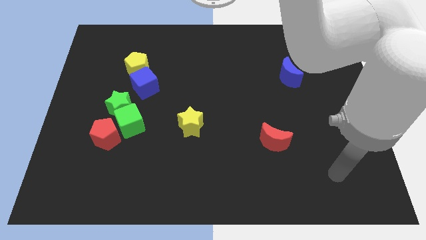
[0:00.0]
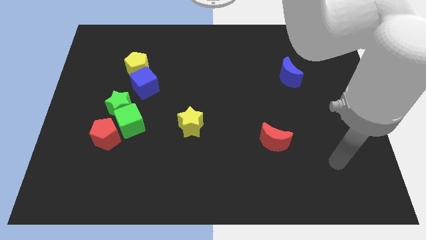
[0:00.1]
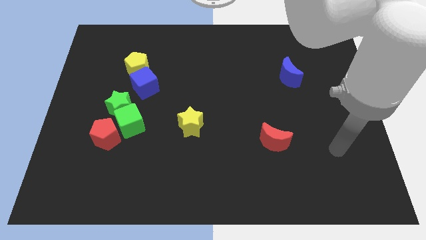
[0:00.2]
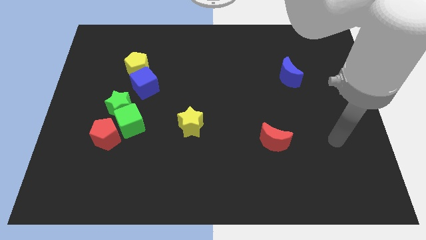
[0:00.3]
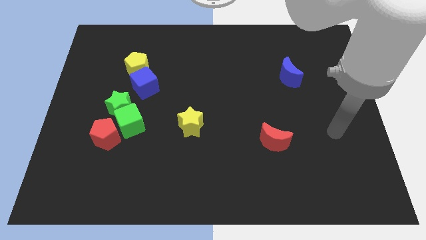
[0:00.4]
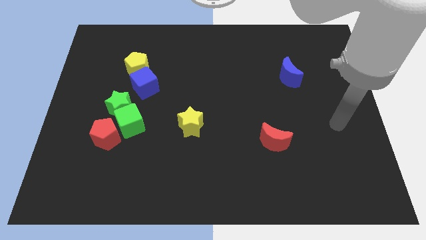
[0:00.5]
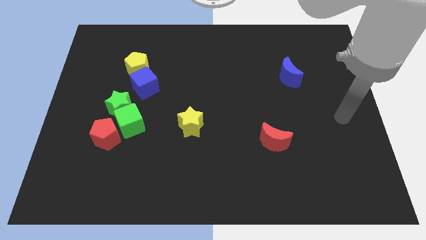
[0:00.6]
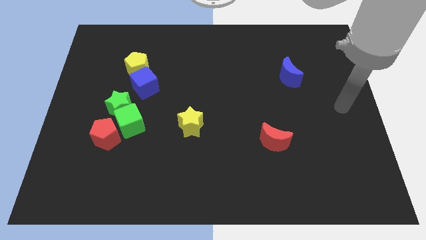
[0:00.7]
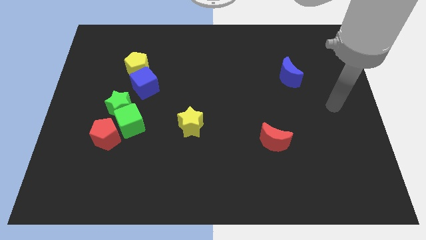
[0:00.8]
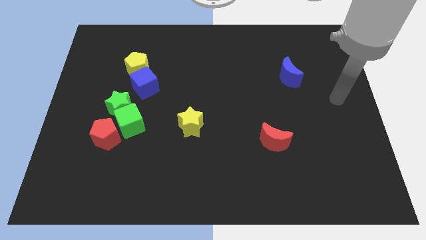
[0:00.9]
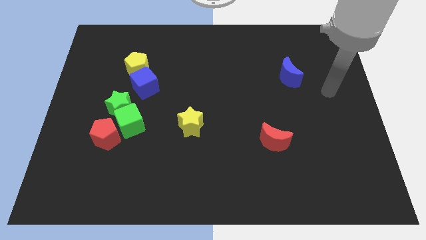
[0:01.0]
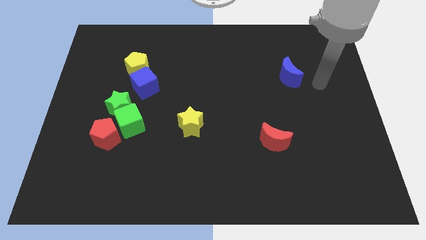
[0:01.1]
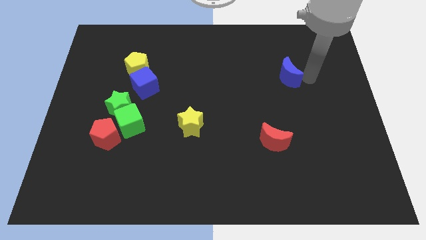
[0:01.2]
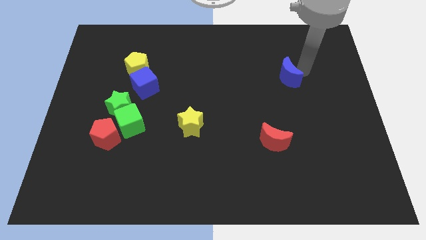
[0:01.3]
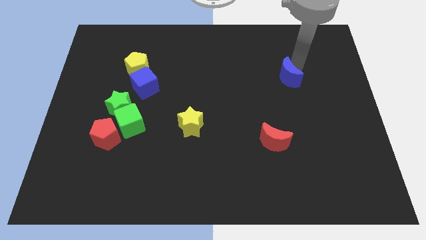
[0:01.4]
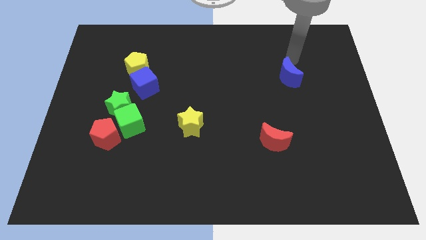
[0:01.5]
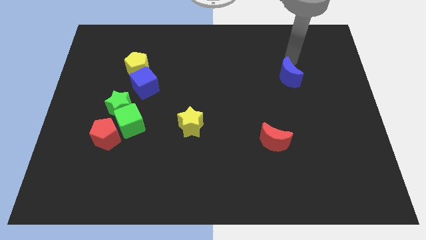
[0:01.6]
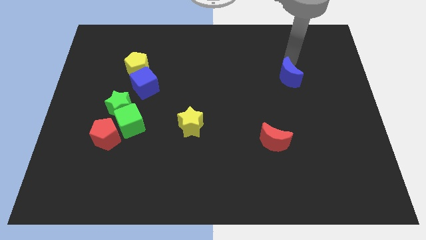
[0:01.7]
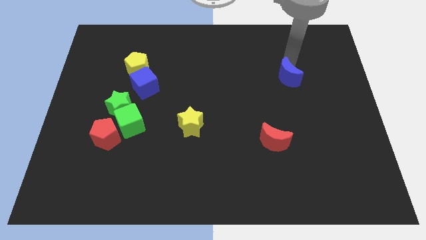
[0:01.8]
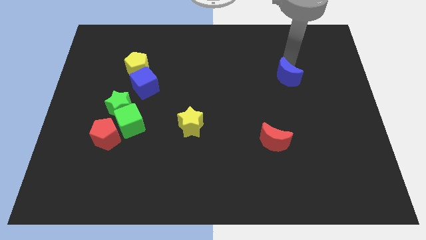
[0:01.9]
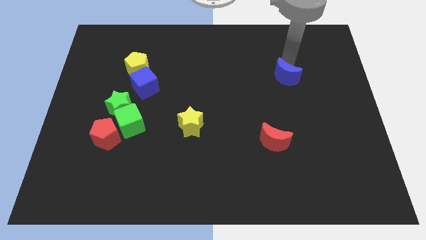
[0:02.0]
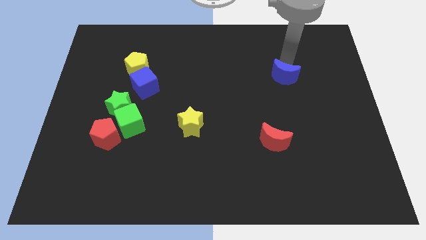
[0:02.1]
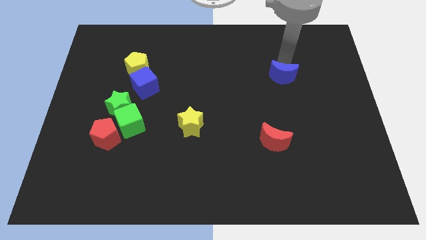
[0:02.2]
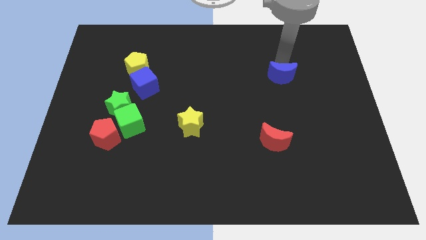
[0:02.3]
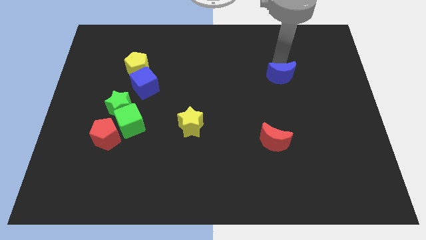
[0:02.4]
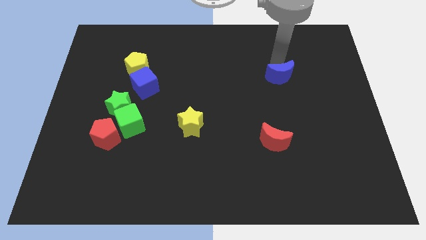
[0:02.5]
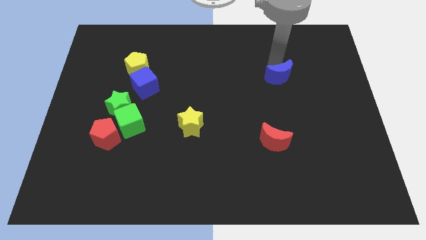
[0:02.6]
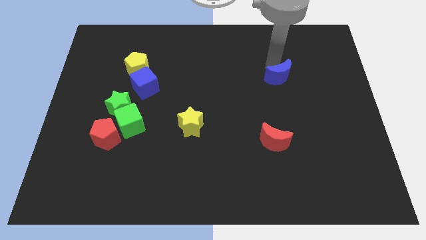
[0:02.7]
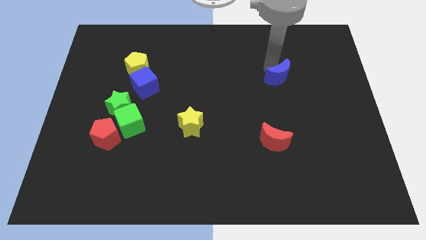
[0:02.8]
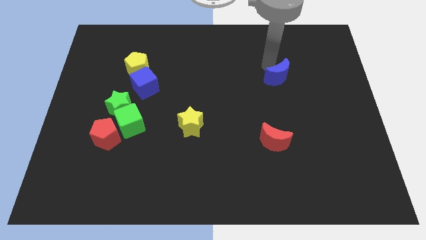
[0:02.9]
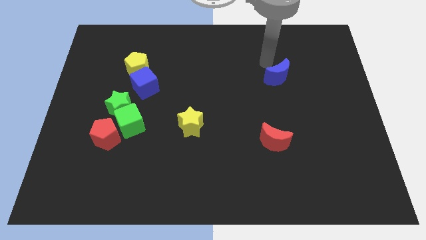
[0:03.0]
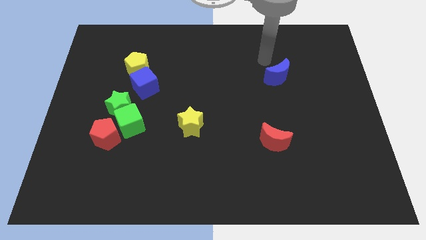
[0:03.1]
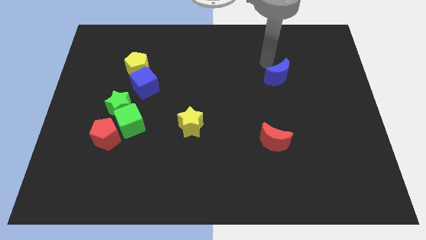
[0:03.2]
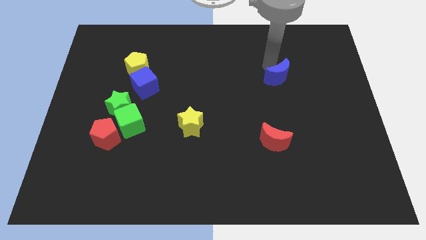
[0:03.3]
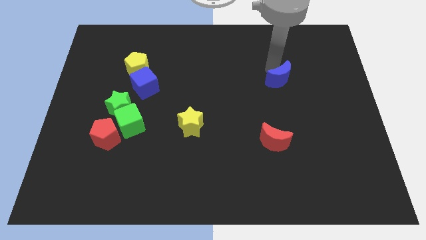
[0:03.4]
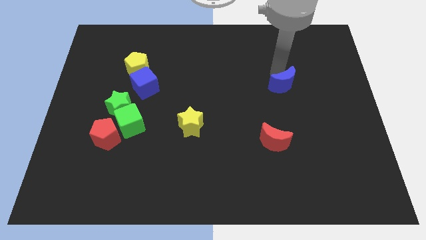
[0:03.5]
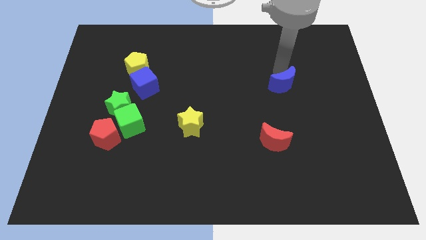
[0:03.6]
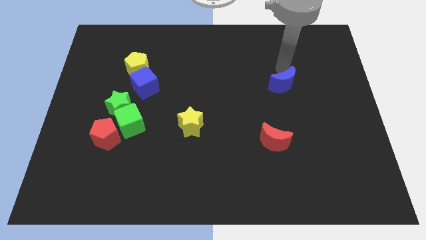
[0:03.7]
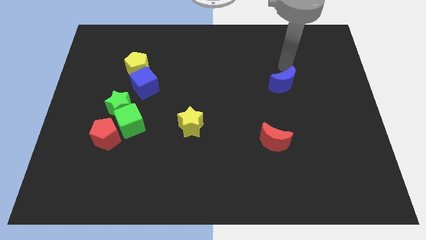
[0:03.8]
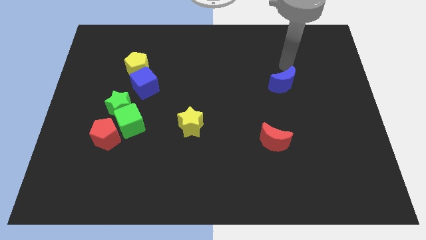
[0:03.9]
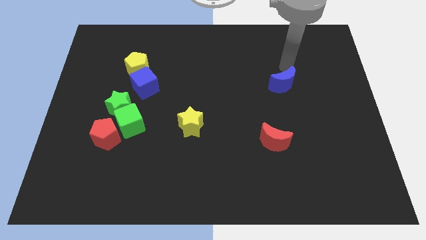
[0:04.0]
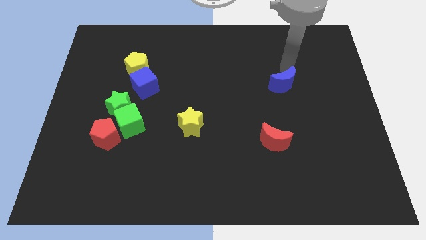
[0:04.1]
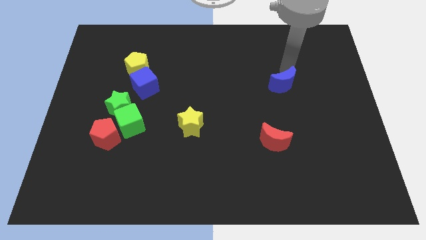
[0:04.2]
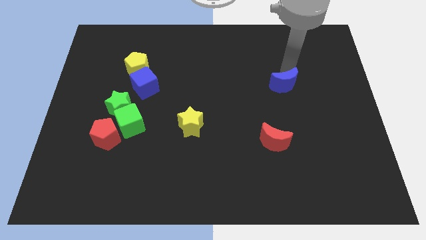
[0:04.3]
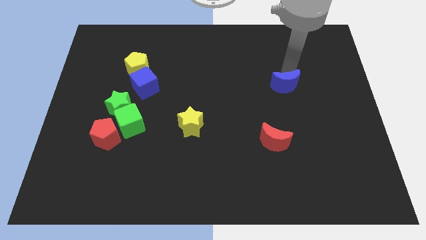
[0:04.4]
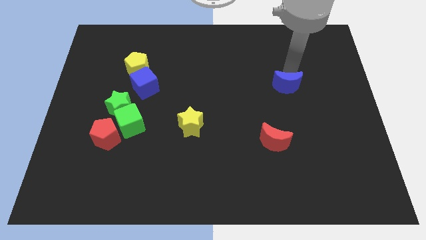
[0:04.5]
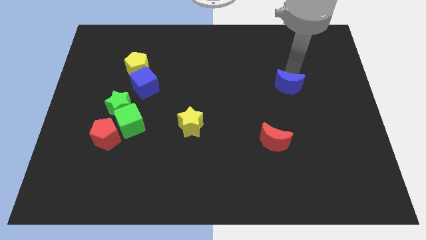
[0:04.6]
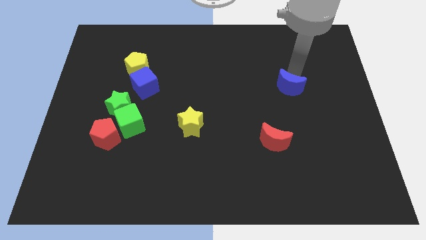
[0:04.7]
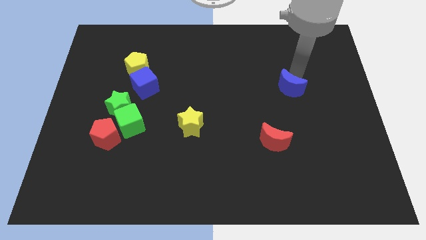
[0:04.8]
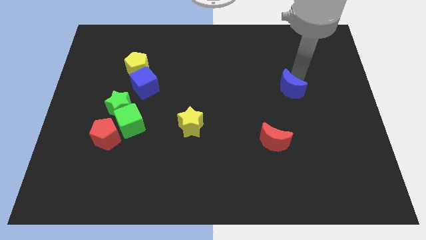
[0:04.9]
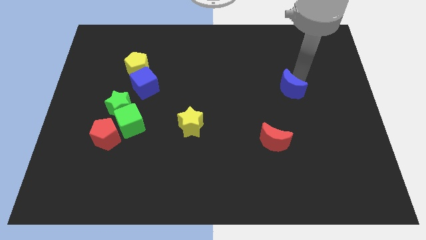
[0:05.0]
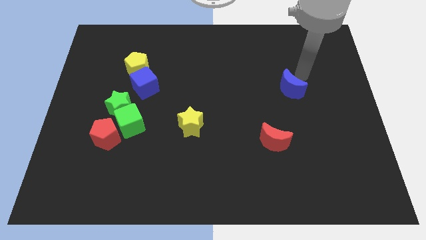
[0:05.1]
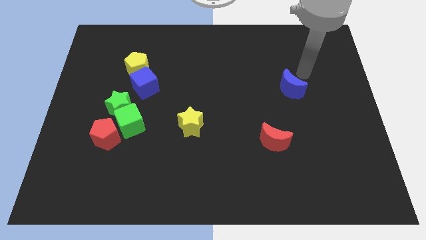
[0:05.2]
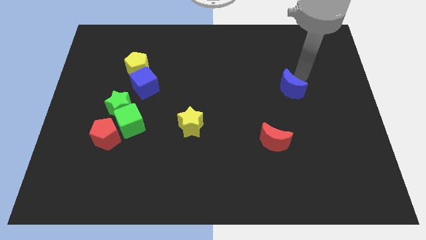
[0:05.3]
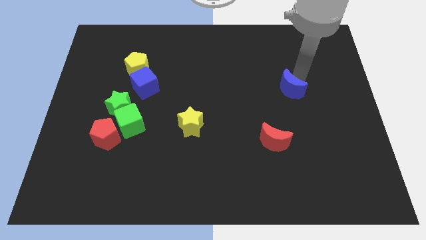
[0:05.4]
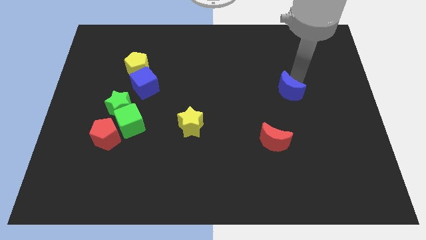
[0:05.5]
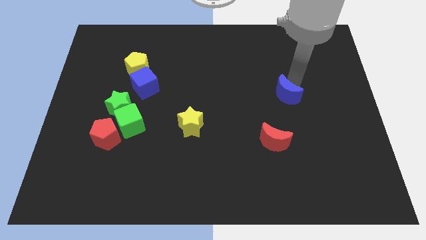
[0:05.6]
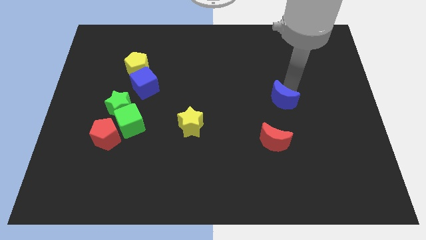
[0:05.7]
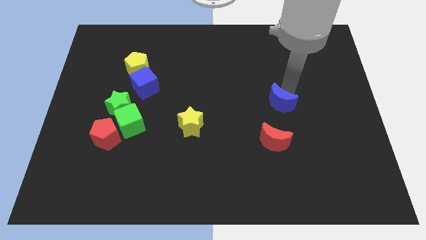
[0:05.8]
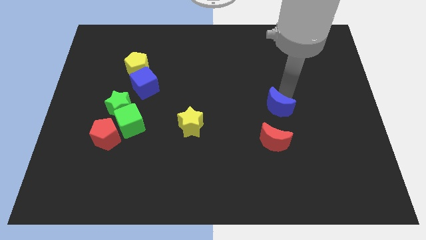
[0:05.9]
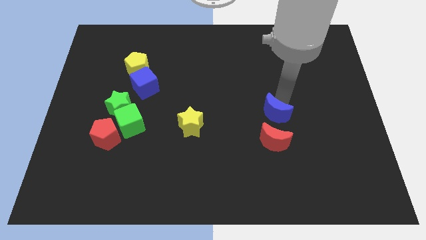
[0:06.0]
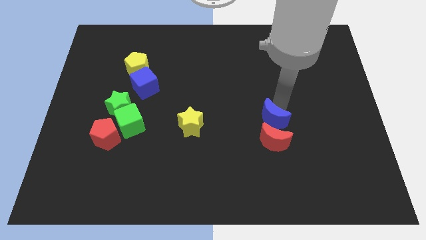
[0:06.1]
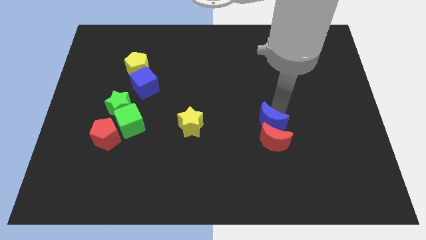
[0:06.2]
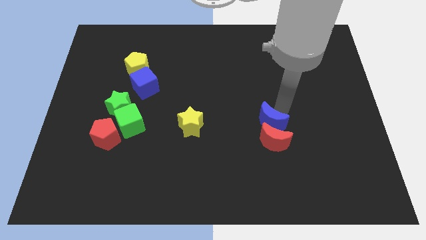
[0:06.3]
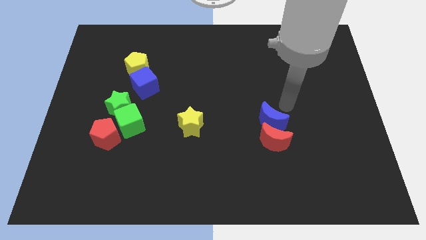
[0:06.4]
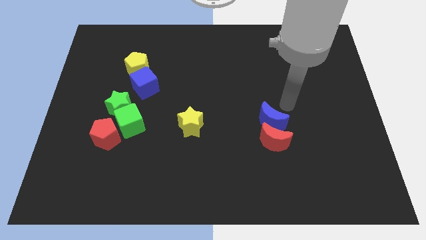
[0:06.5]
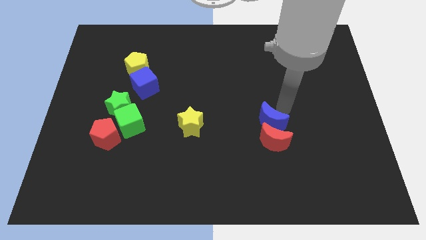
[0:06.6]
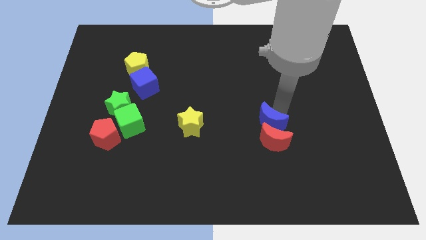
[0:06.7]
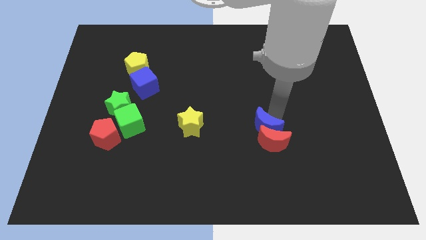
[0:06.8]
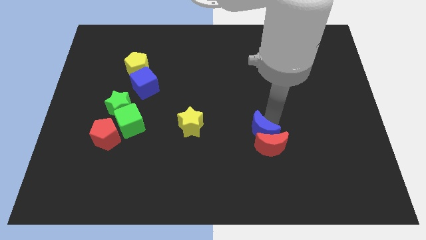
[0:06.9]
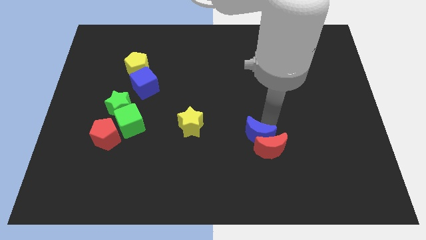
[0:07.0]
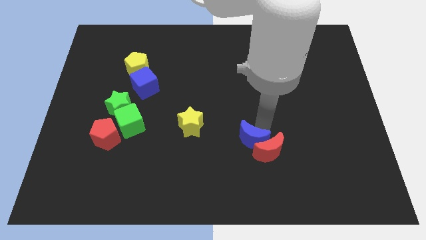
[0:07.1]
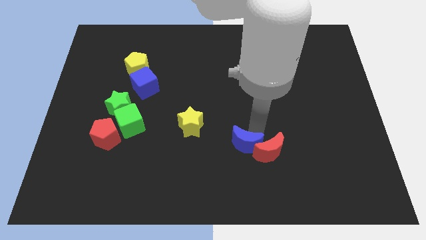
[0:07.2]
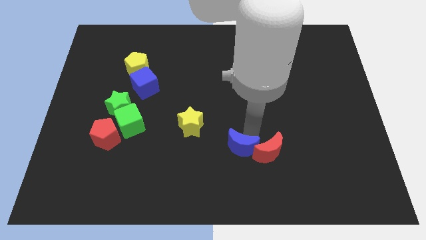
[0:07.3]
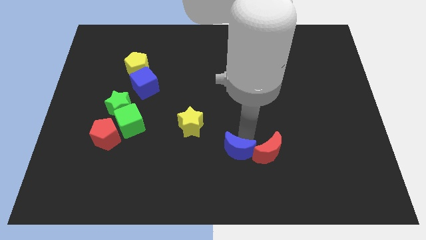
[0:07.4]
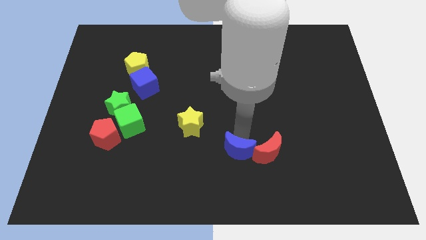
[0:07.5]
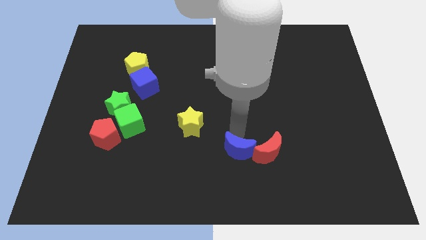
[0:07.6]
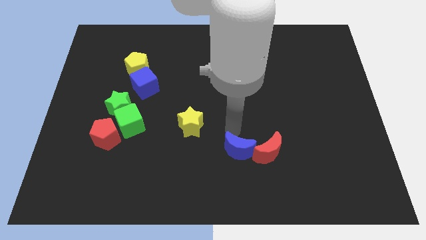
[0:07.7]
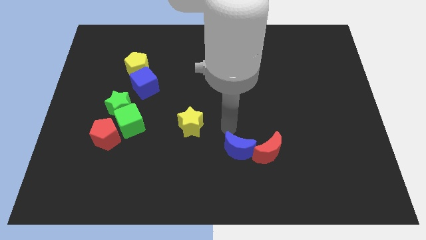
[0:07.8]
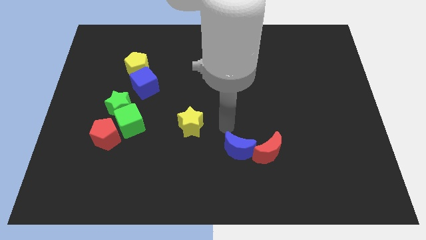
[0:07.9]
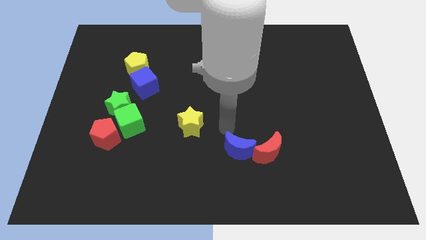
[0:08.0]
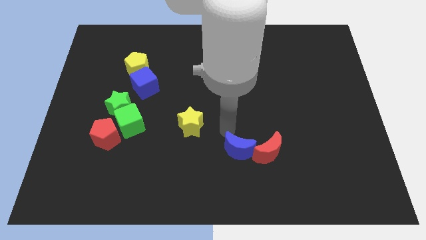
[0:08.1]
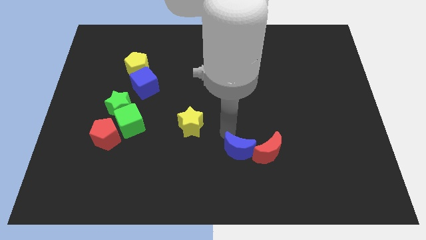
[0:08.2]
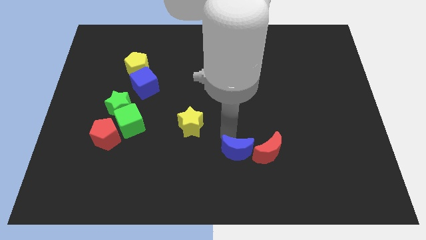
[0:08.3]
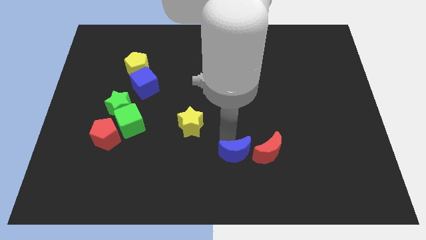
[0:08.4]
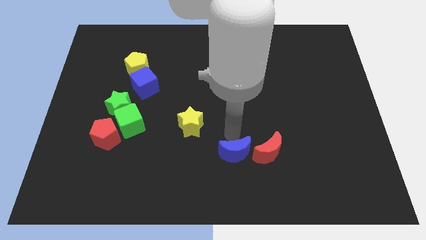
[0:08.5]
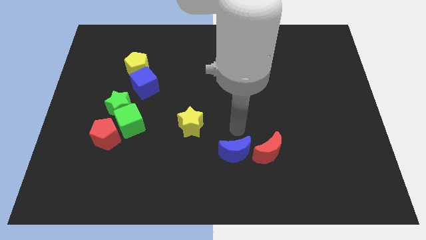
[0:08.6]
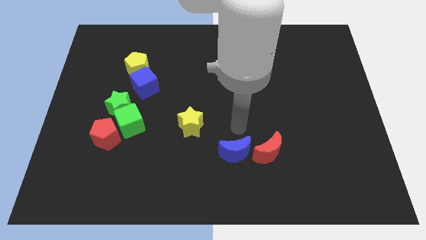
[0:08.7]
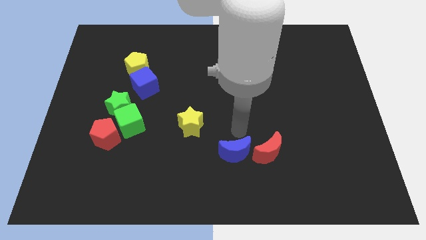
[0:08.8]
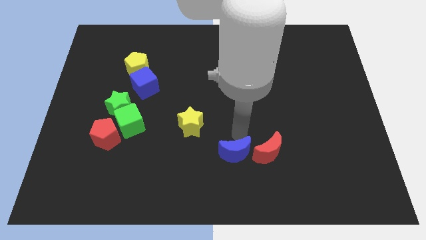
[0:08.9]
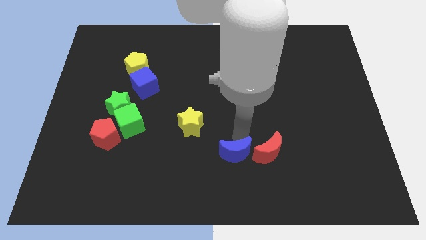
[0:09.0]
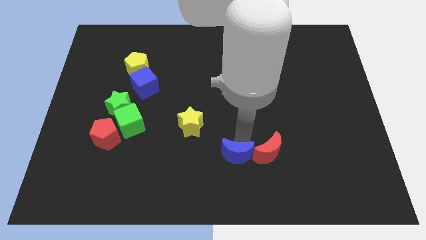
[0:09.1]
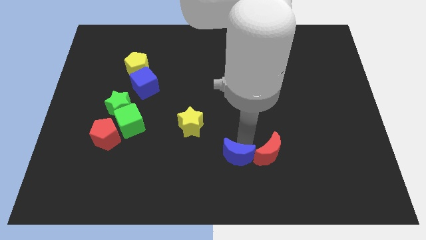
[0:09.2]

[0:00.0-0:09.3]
slide the blue moon to the bottom
